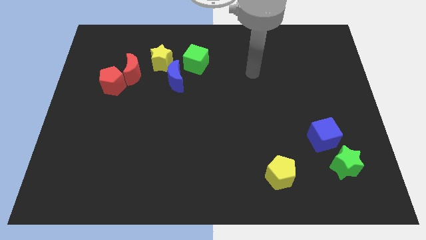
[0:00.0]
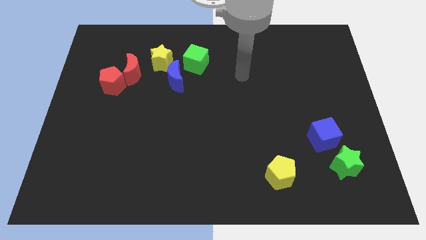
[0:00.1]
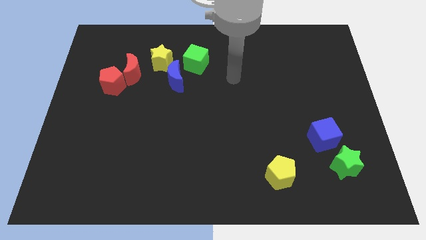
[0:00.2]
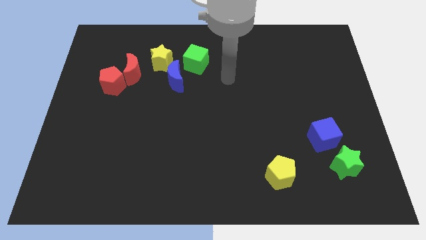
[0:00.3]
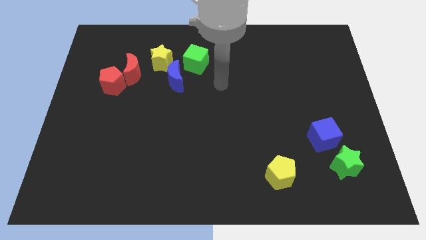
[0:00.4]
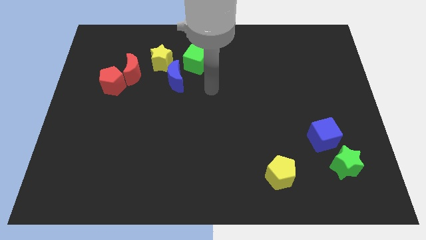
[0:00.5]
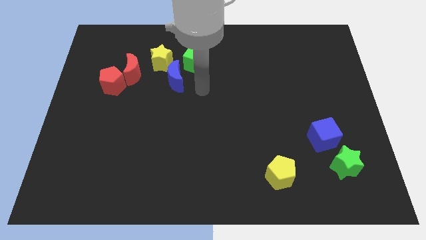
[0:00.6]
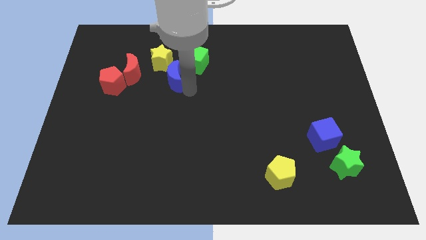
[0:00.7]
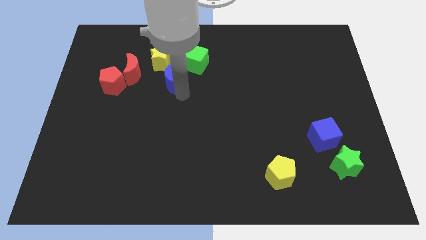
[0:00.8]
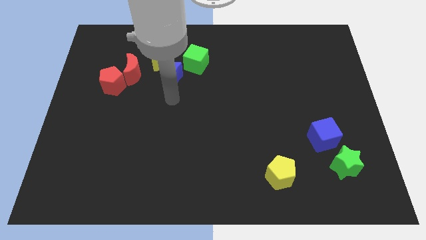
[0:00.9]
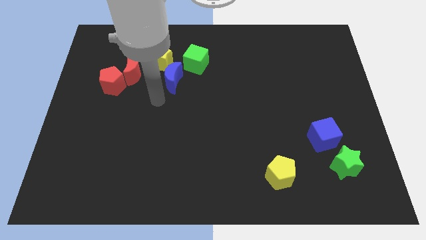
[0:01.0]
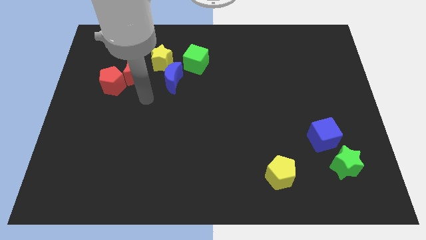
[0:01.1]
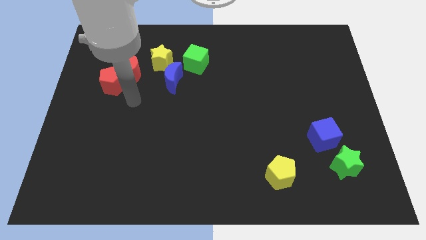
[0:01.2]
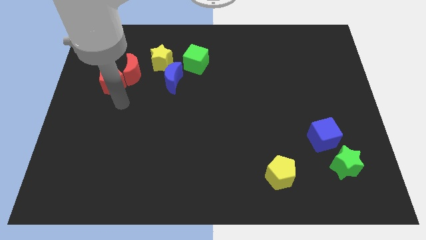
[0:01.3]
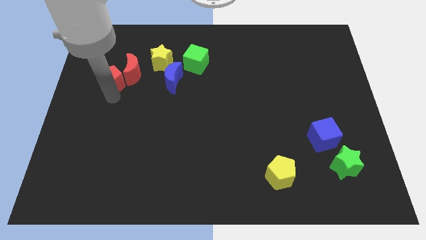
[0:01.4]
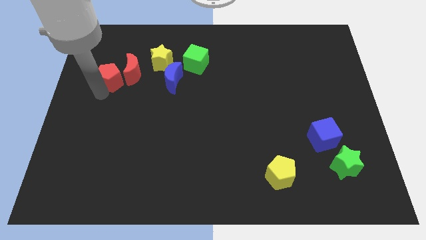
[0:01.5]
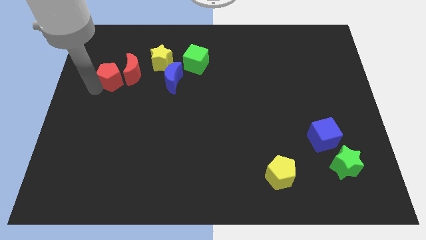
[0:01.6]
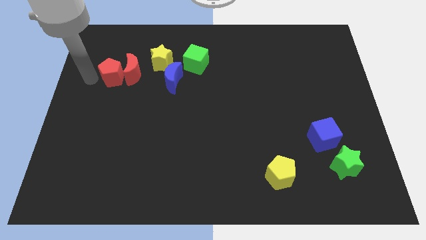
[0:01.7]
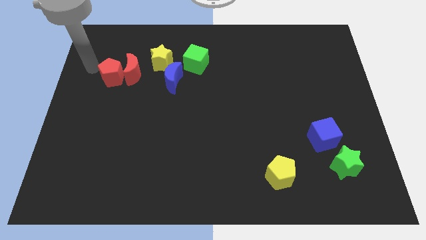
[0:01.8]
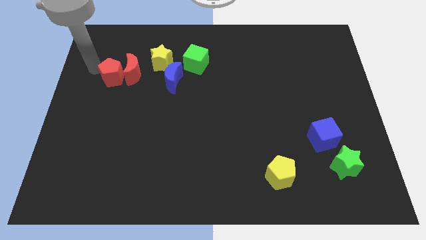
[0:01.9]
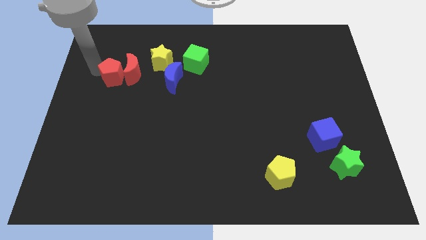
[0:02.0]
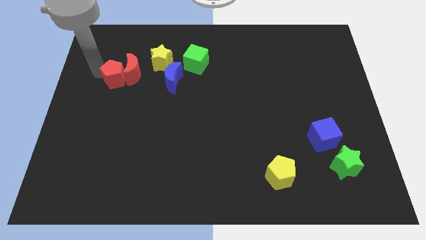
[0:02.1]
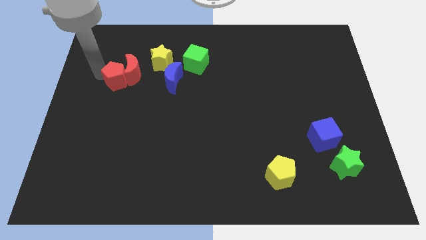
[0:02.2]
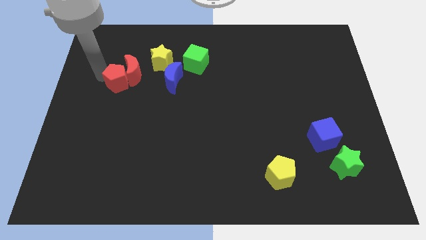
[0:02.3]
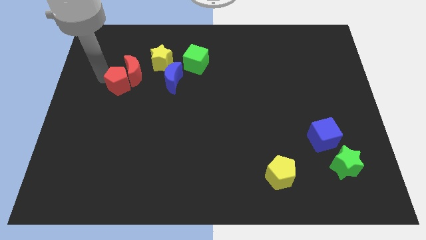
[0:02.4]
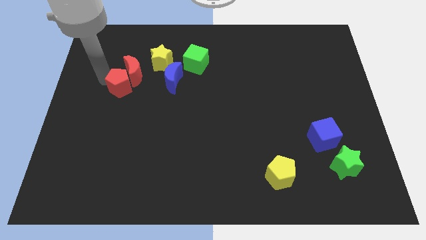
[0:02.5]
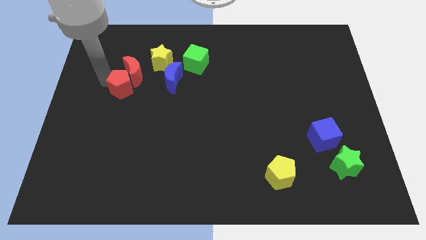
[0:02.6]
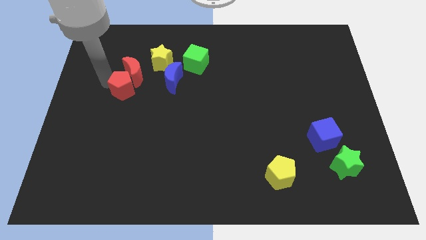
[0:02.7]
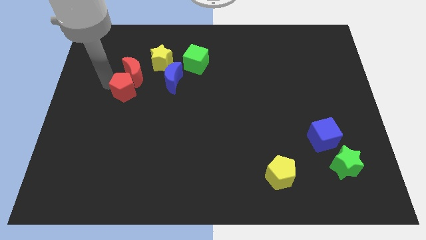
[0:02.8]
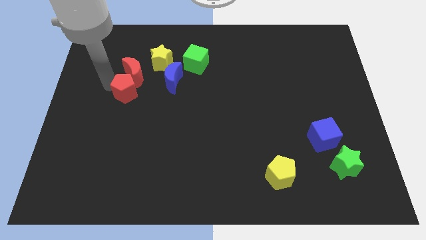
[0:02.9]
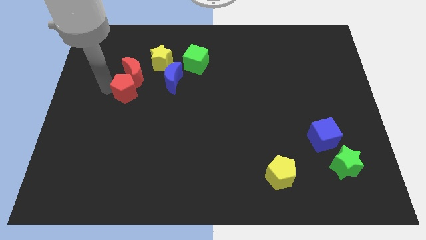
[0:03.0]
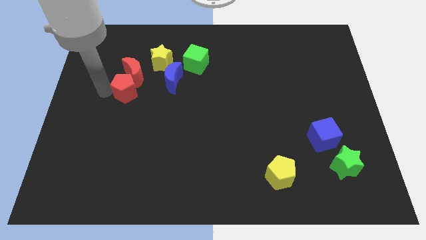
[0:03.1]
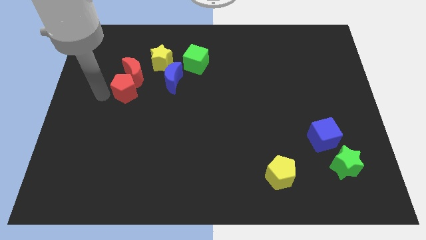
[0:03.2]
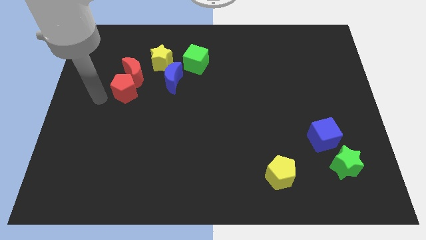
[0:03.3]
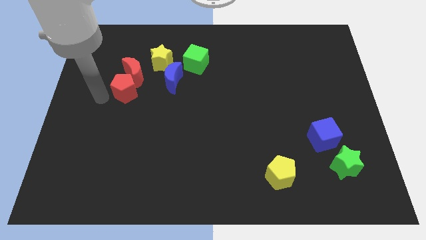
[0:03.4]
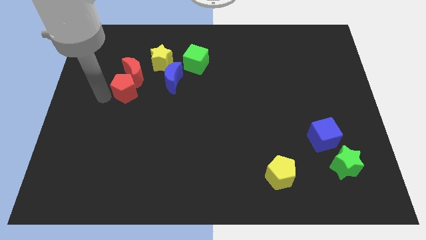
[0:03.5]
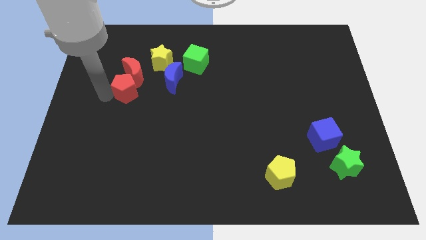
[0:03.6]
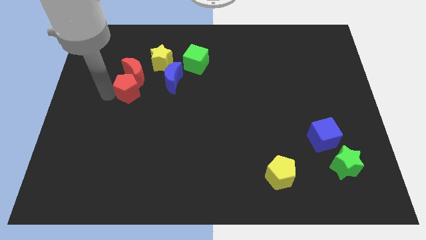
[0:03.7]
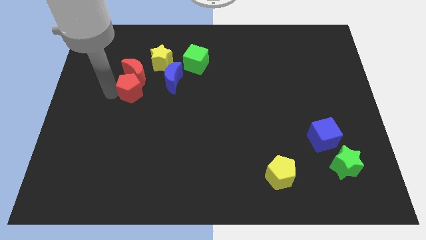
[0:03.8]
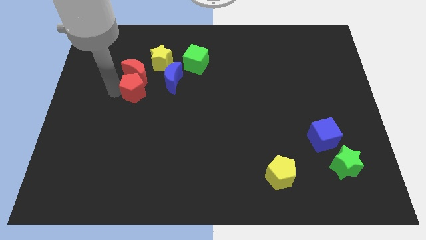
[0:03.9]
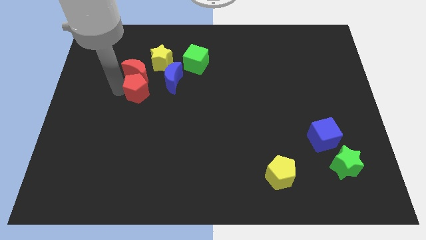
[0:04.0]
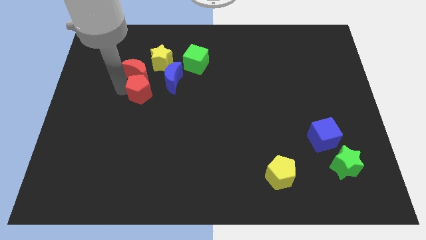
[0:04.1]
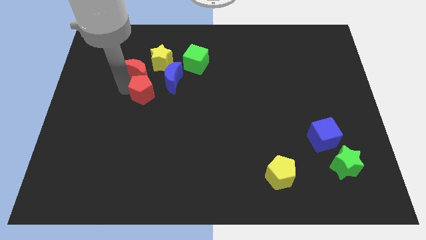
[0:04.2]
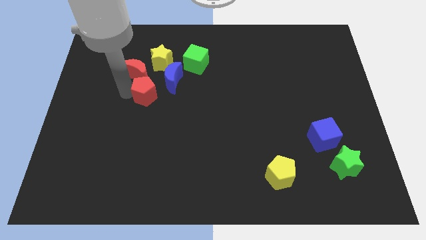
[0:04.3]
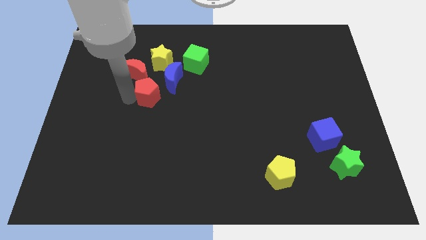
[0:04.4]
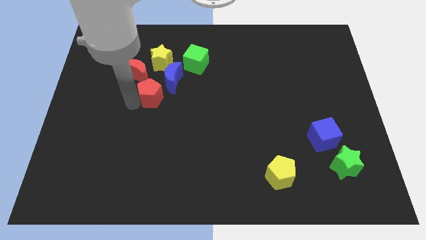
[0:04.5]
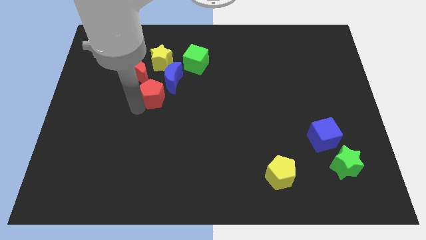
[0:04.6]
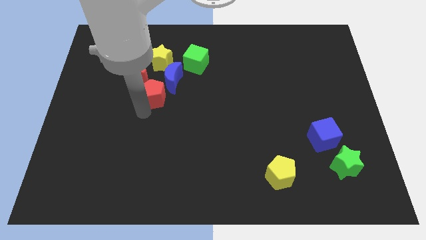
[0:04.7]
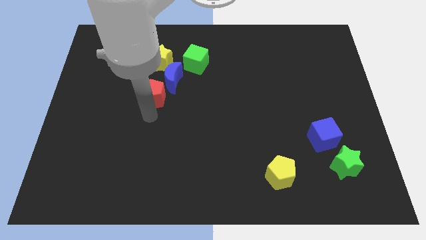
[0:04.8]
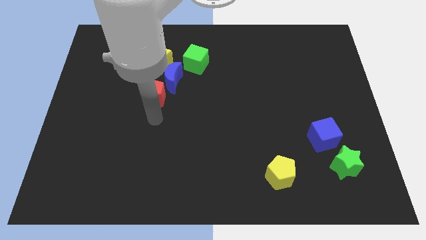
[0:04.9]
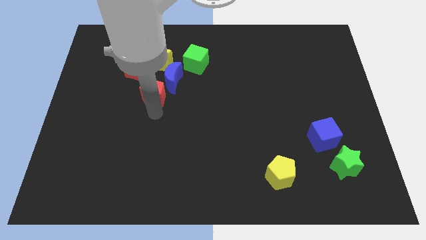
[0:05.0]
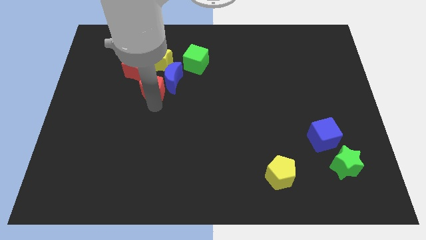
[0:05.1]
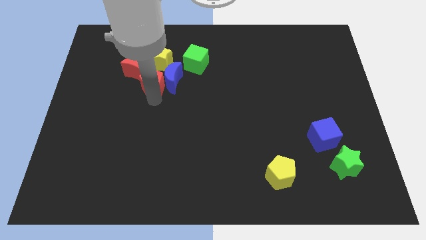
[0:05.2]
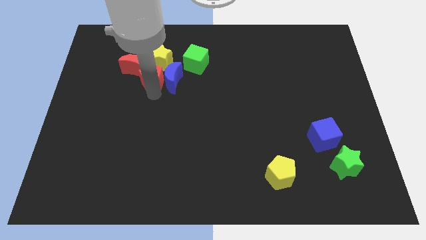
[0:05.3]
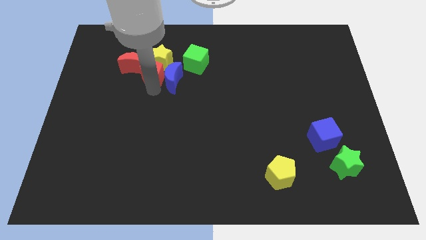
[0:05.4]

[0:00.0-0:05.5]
push the red pentagon next to the yellow star

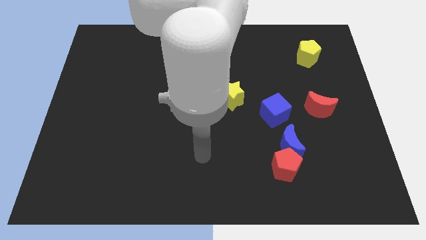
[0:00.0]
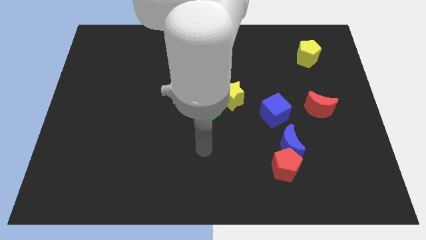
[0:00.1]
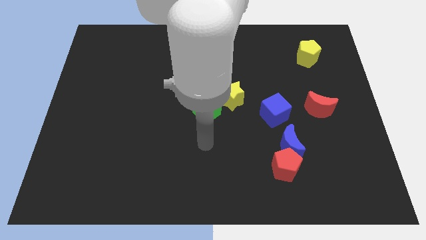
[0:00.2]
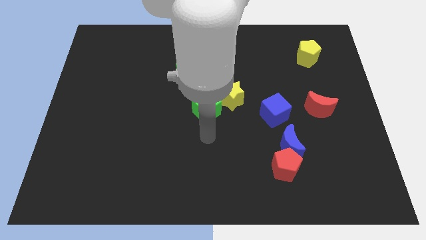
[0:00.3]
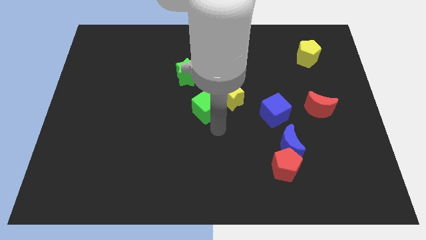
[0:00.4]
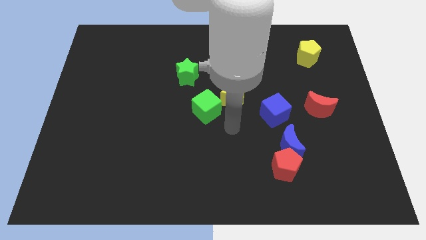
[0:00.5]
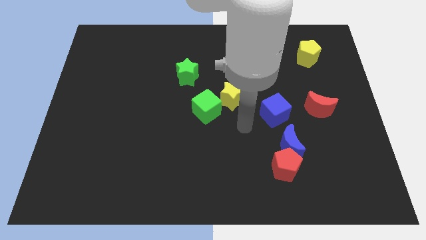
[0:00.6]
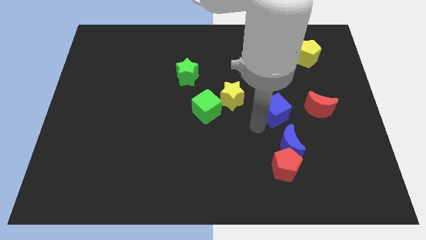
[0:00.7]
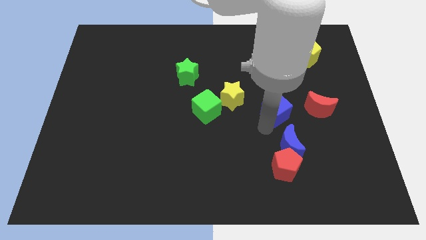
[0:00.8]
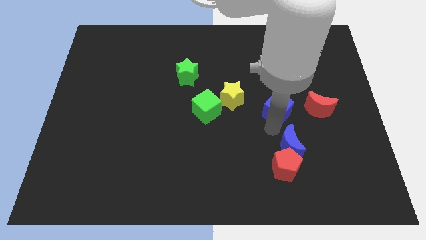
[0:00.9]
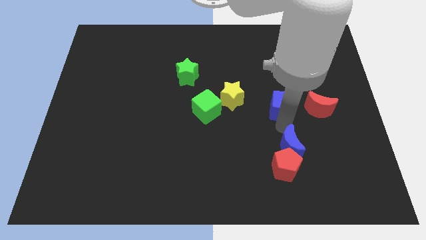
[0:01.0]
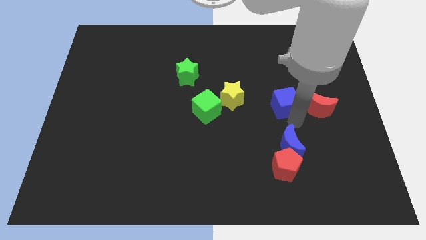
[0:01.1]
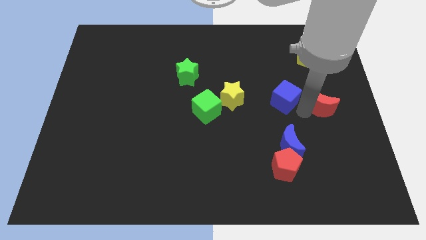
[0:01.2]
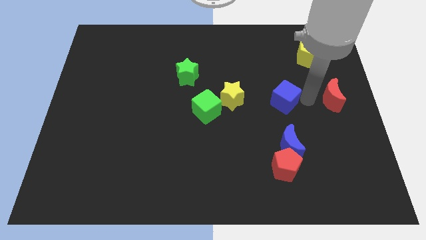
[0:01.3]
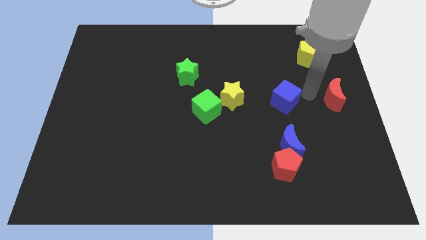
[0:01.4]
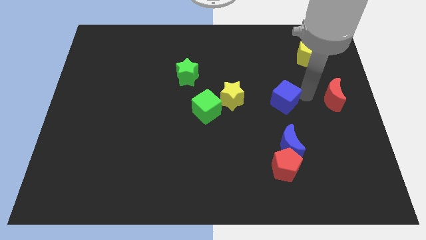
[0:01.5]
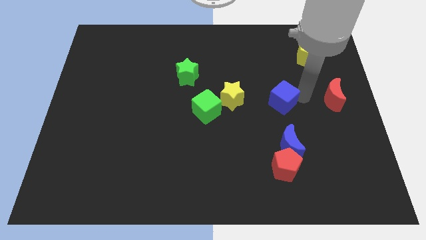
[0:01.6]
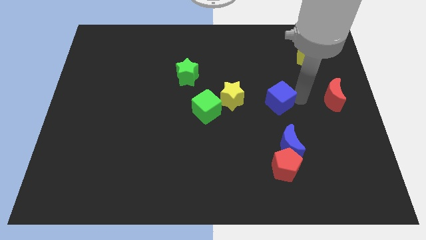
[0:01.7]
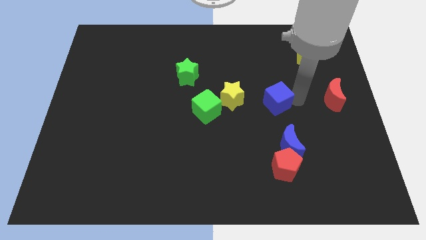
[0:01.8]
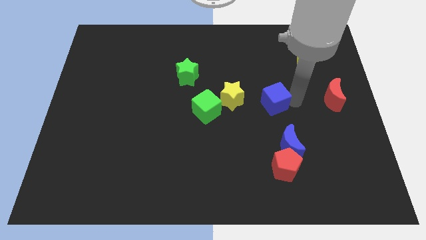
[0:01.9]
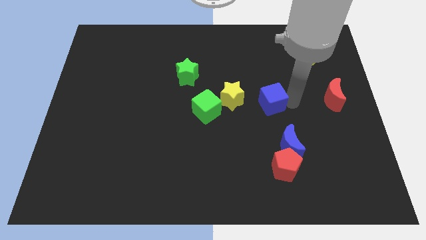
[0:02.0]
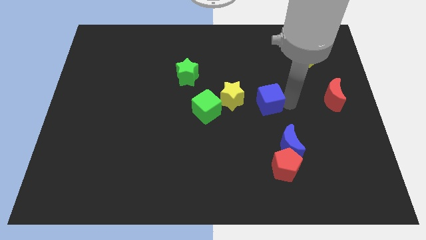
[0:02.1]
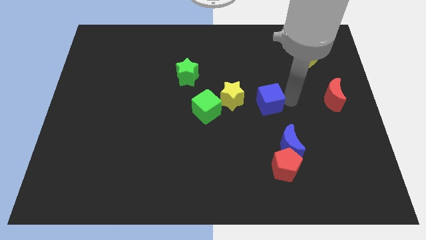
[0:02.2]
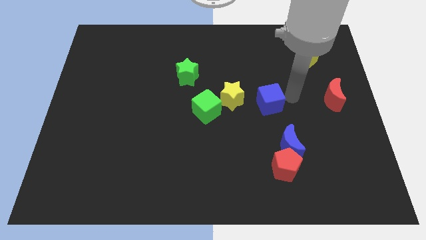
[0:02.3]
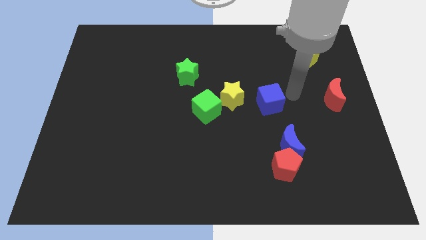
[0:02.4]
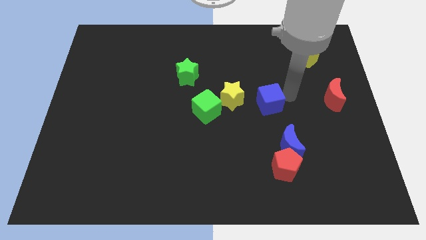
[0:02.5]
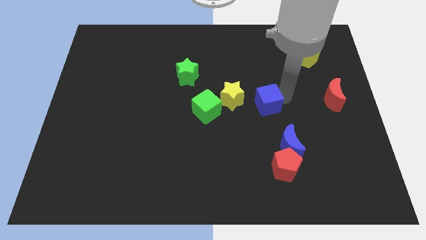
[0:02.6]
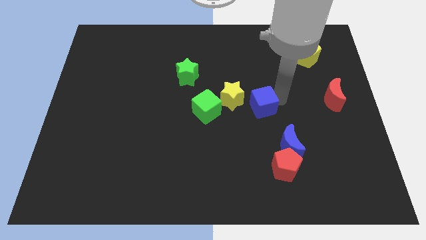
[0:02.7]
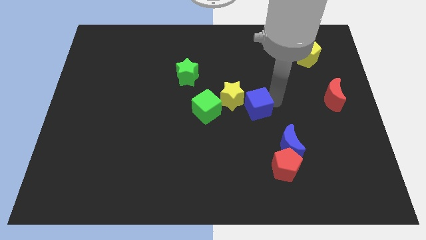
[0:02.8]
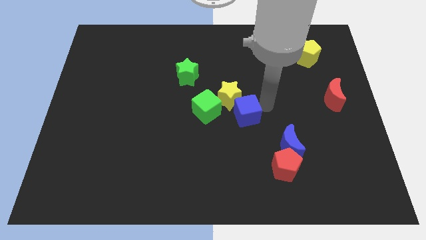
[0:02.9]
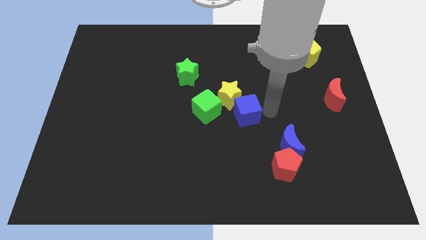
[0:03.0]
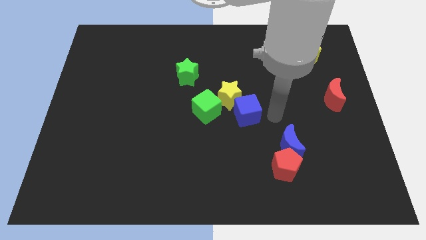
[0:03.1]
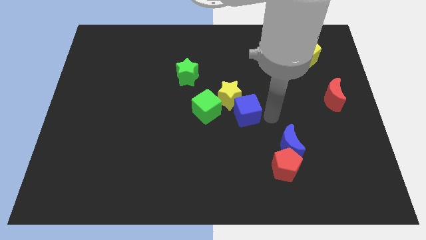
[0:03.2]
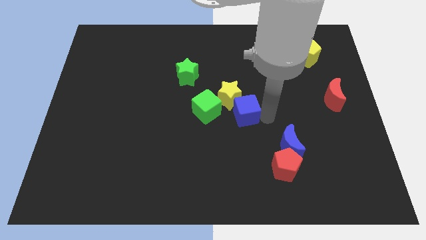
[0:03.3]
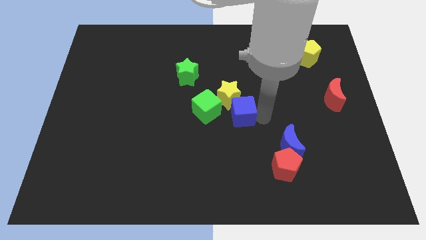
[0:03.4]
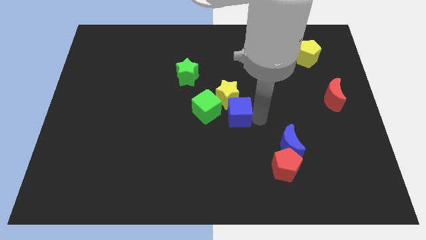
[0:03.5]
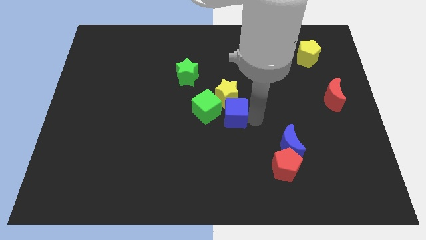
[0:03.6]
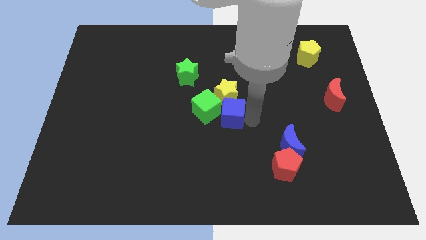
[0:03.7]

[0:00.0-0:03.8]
move the blue cube next to the green cube
